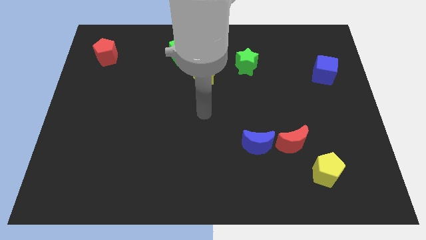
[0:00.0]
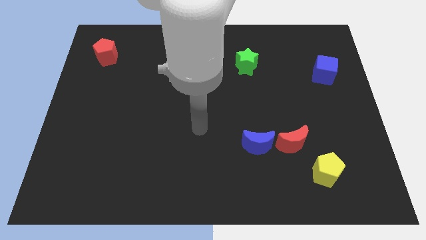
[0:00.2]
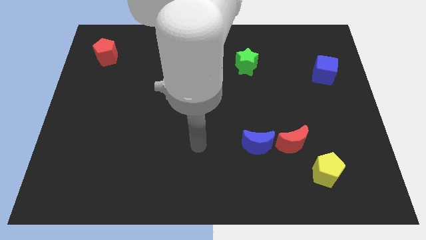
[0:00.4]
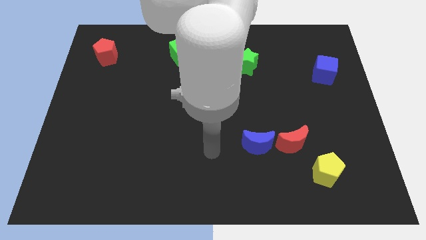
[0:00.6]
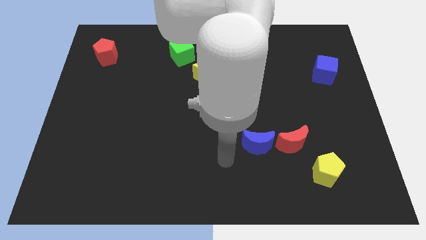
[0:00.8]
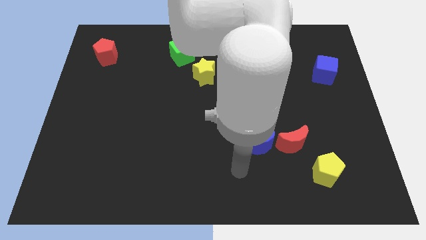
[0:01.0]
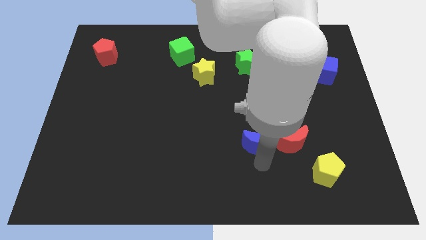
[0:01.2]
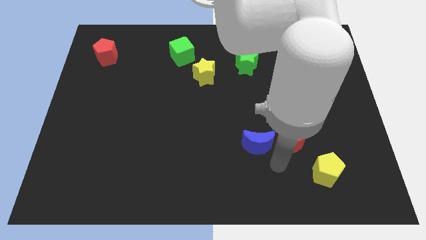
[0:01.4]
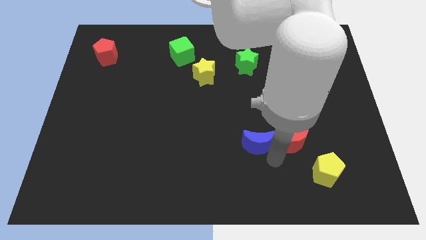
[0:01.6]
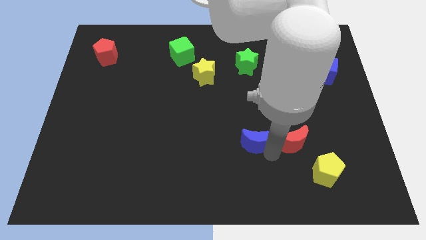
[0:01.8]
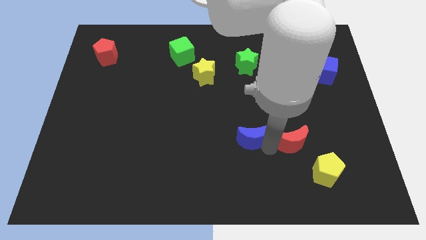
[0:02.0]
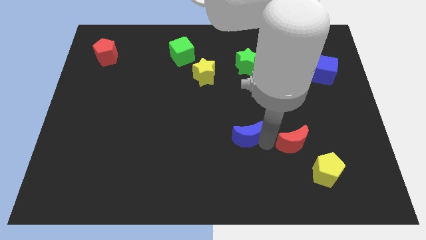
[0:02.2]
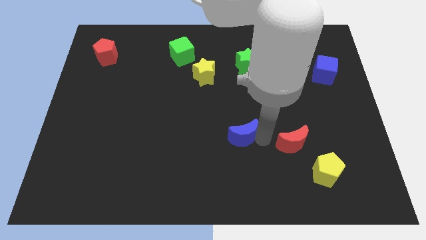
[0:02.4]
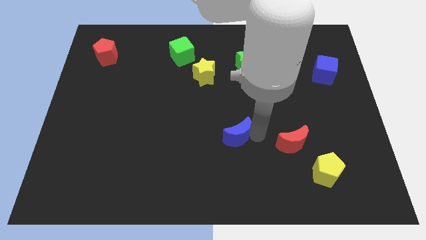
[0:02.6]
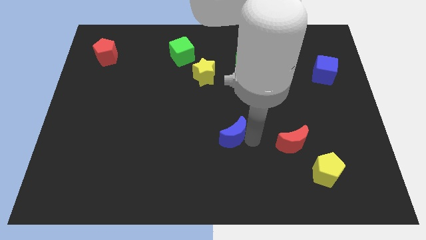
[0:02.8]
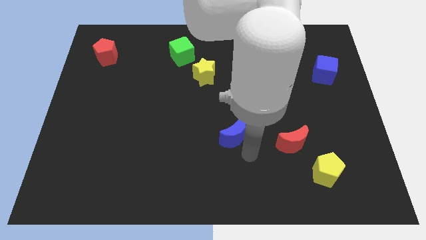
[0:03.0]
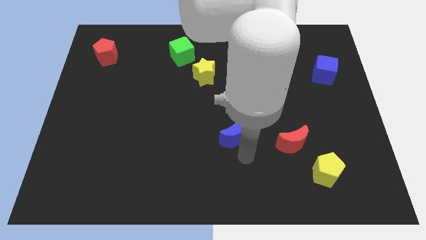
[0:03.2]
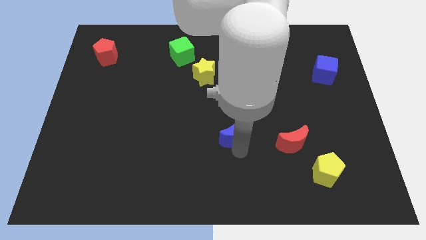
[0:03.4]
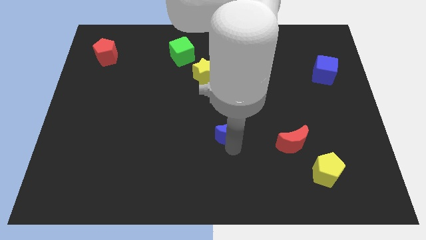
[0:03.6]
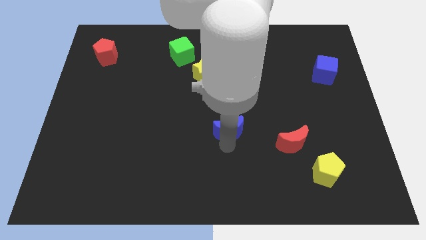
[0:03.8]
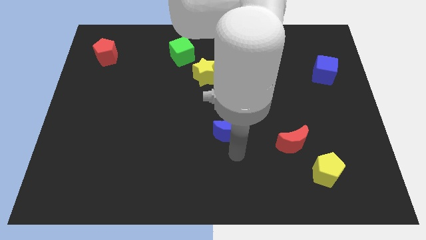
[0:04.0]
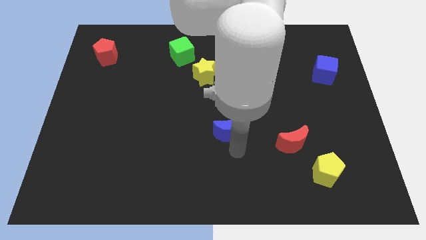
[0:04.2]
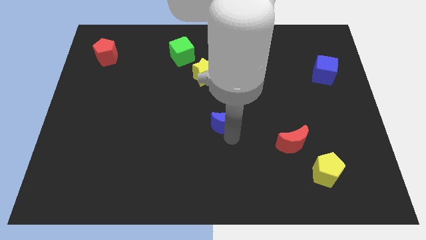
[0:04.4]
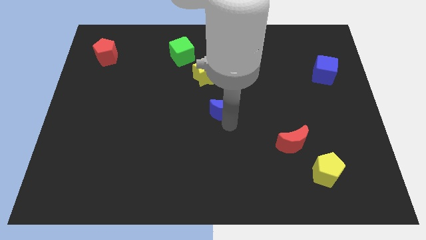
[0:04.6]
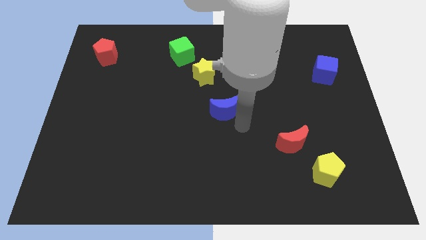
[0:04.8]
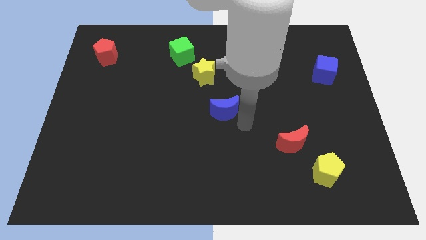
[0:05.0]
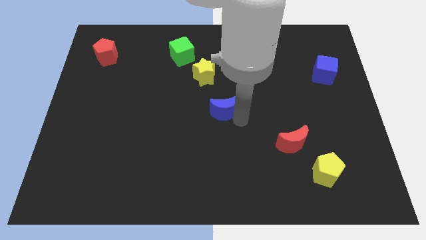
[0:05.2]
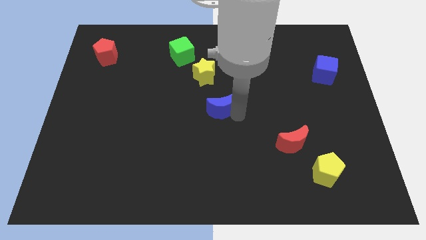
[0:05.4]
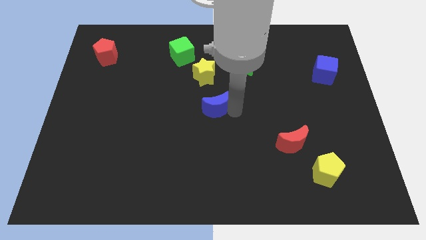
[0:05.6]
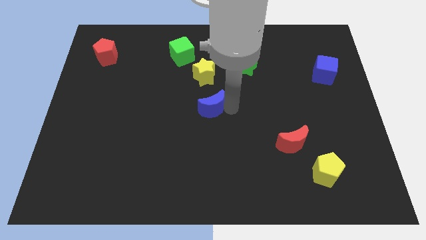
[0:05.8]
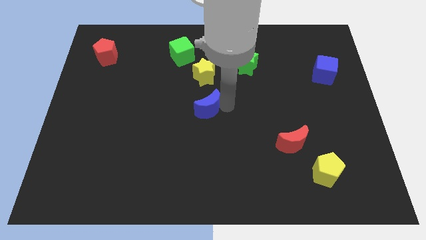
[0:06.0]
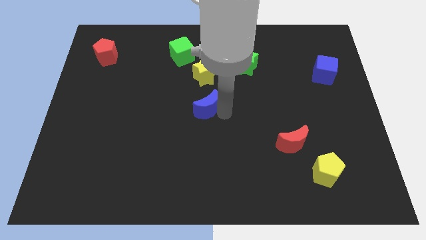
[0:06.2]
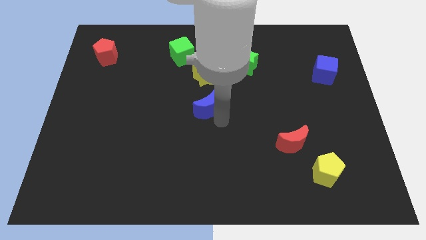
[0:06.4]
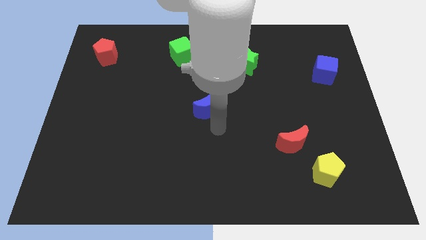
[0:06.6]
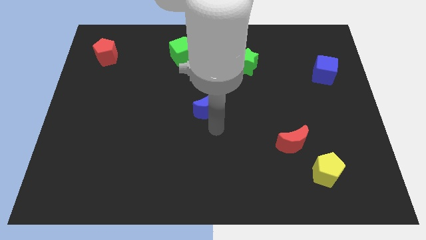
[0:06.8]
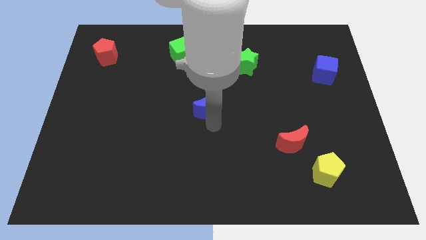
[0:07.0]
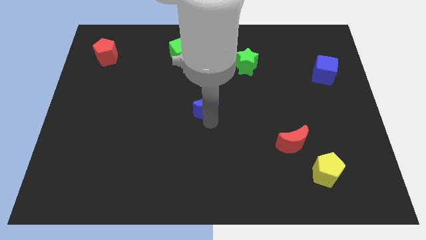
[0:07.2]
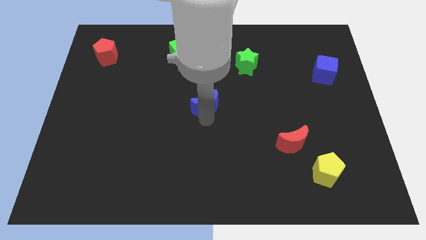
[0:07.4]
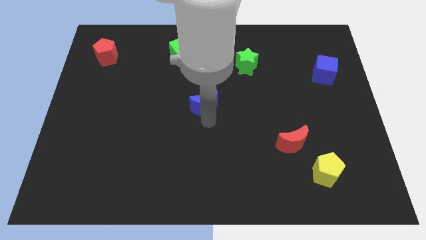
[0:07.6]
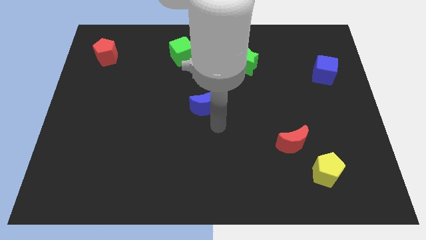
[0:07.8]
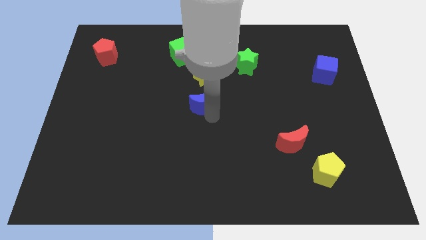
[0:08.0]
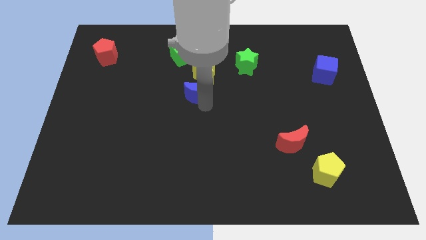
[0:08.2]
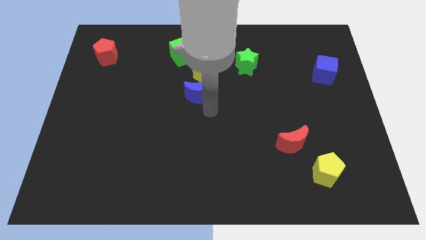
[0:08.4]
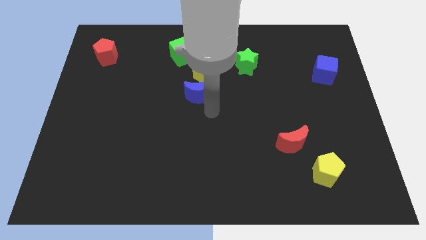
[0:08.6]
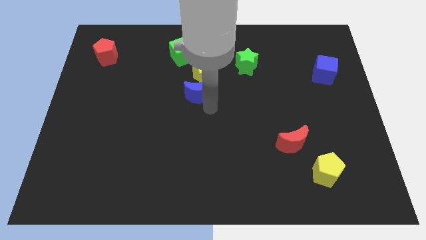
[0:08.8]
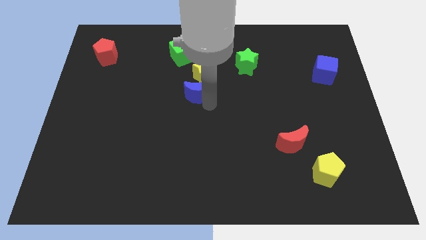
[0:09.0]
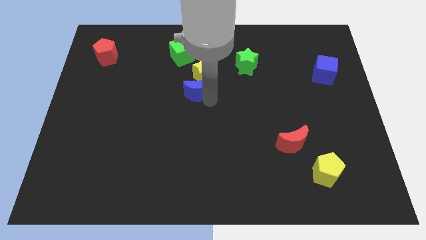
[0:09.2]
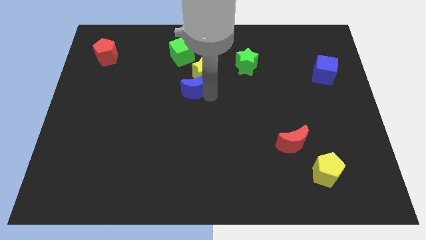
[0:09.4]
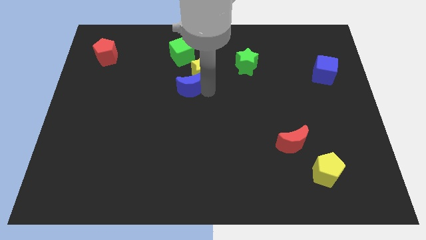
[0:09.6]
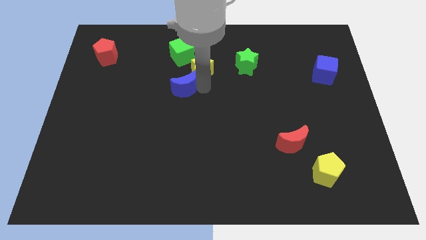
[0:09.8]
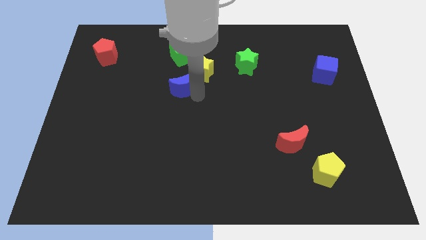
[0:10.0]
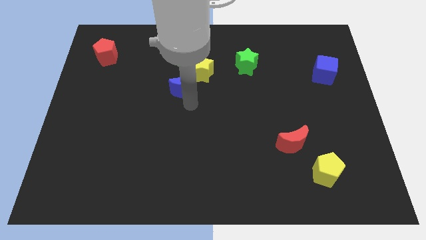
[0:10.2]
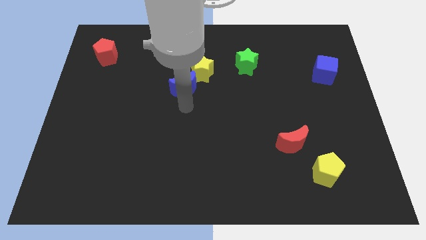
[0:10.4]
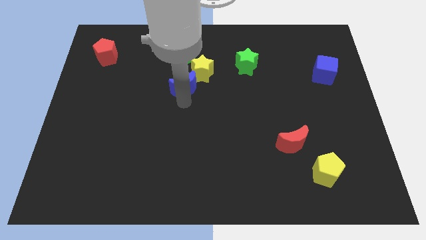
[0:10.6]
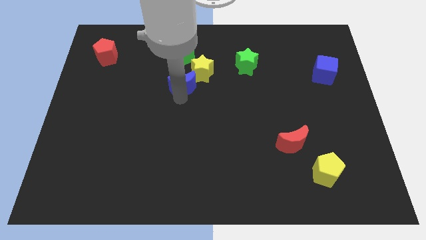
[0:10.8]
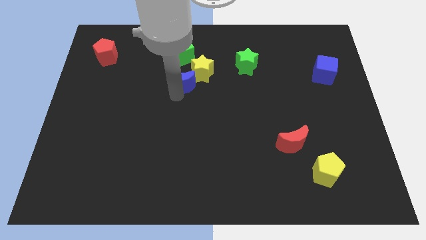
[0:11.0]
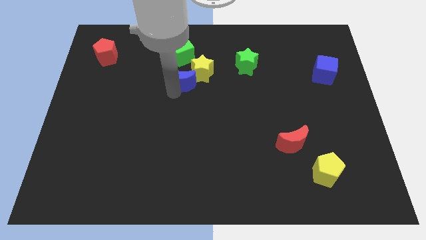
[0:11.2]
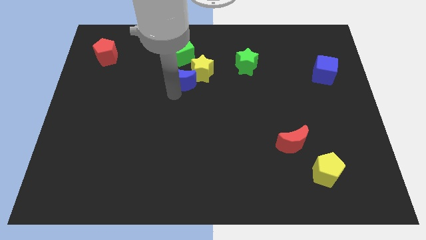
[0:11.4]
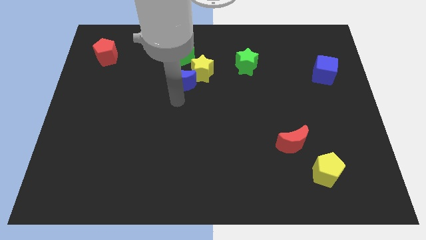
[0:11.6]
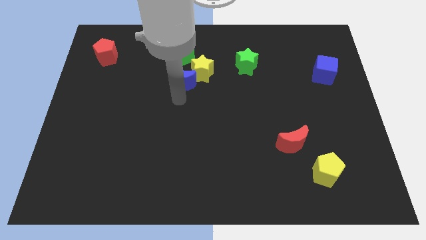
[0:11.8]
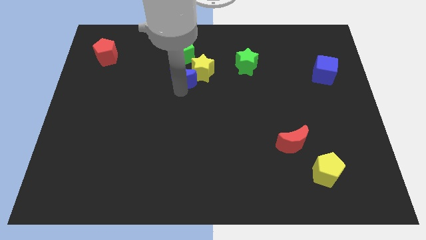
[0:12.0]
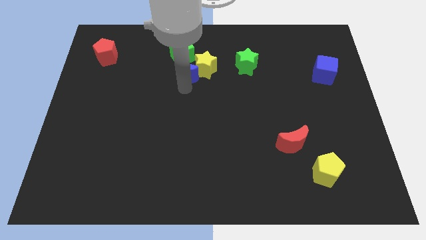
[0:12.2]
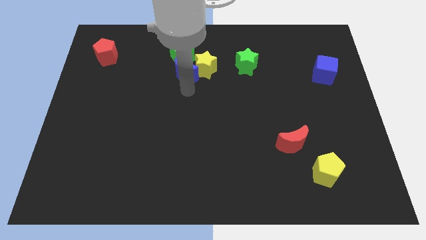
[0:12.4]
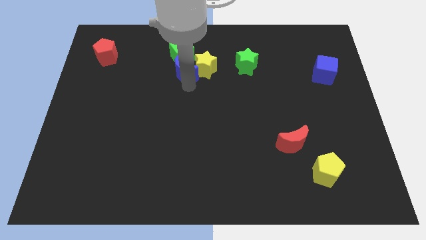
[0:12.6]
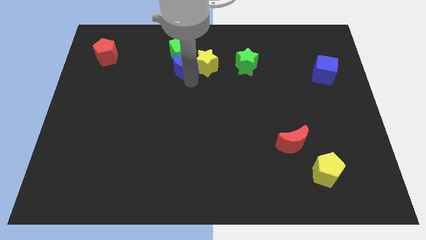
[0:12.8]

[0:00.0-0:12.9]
move the blue moon to the green cube

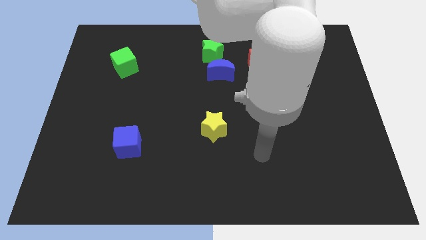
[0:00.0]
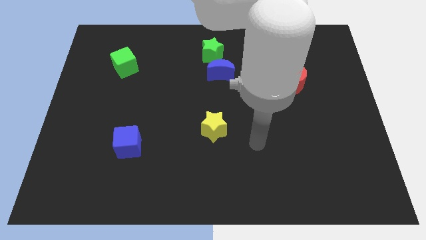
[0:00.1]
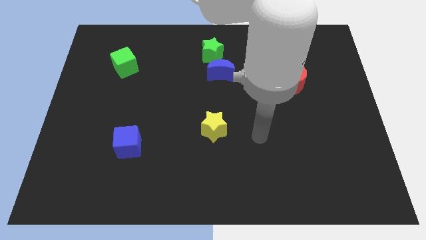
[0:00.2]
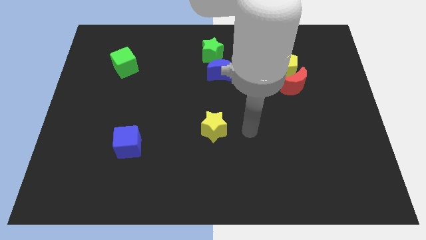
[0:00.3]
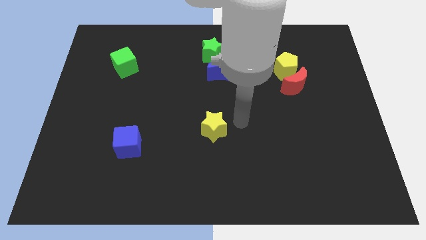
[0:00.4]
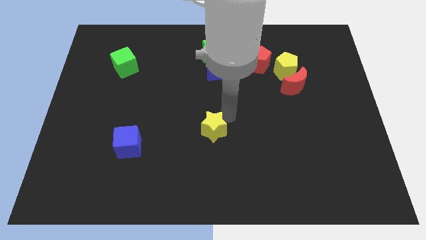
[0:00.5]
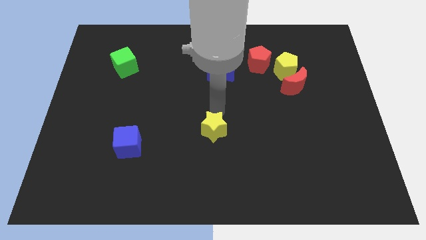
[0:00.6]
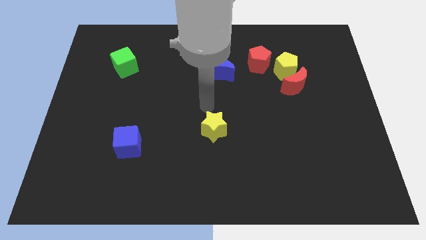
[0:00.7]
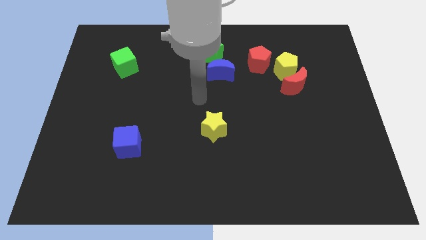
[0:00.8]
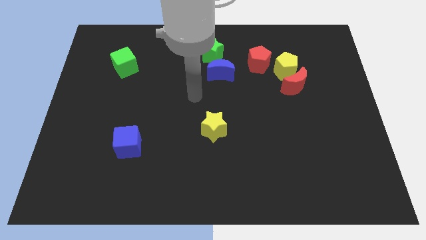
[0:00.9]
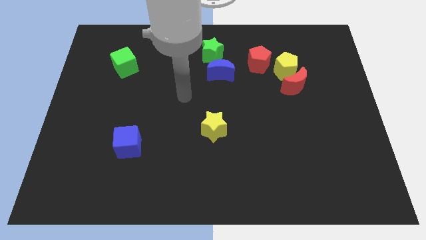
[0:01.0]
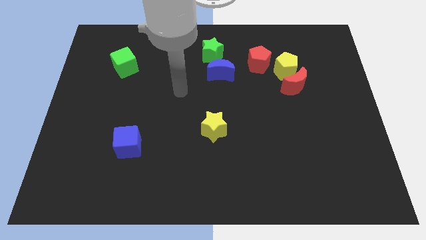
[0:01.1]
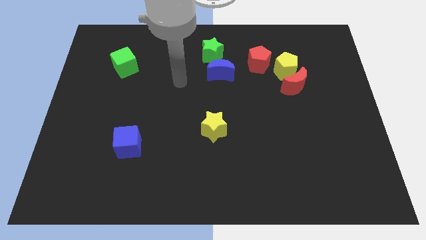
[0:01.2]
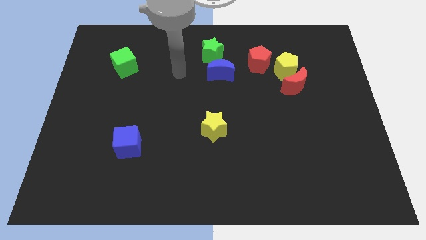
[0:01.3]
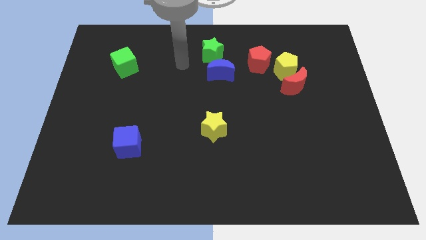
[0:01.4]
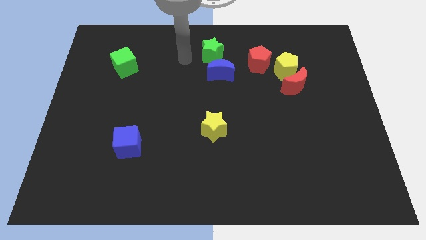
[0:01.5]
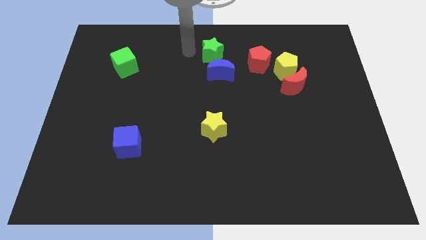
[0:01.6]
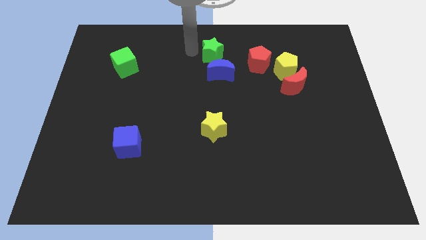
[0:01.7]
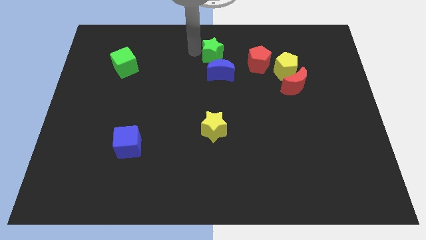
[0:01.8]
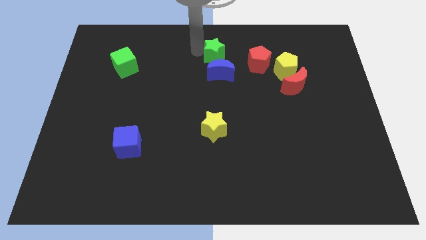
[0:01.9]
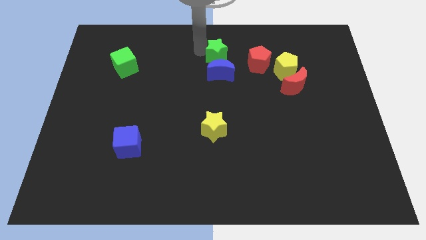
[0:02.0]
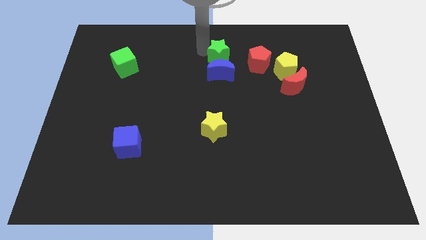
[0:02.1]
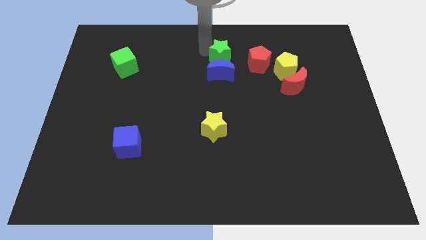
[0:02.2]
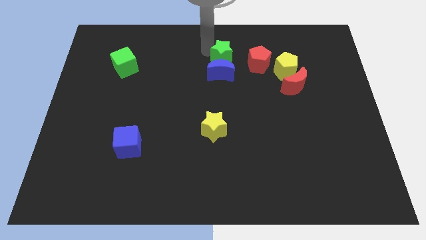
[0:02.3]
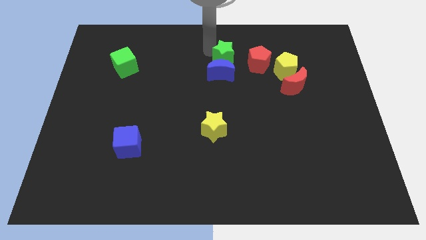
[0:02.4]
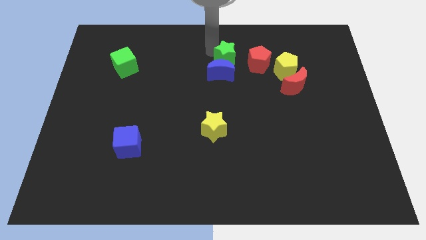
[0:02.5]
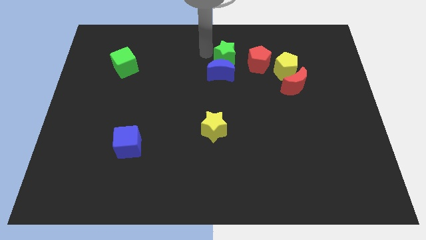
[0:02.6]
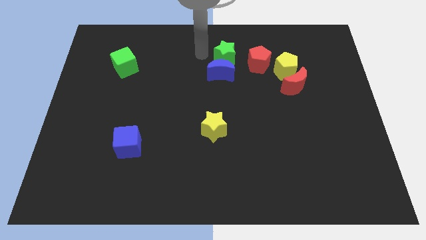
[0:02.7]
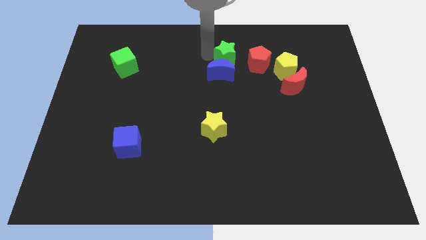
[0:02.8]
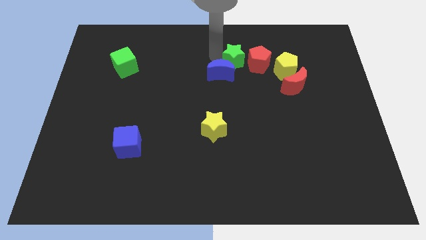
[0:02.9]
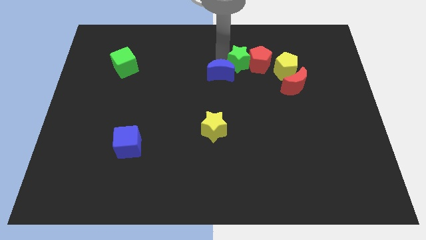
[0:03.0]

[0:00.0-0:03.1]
put the green star to the red pentagon
